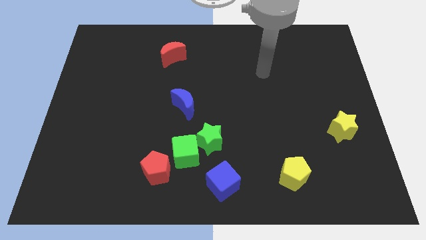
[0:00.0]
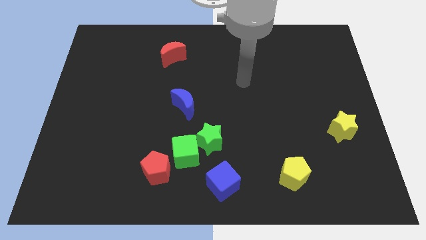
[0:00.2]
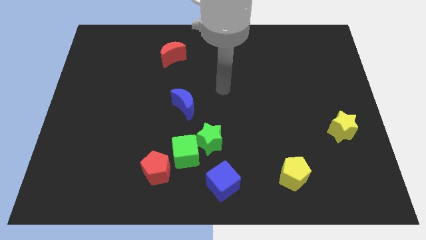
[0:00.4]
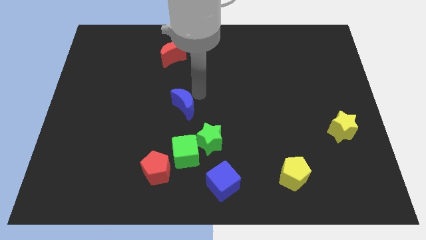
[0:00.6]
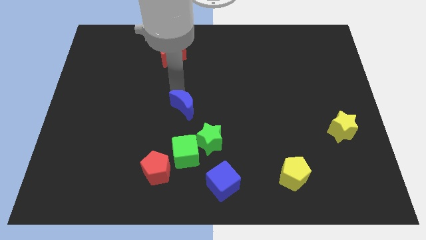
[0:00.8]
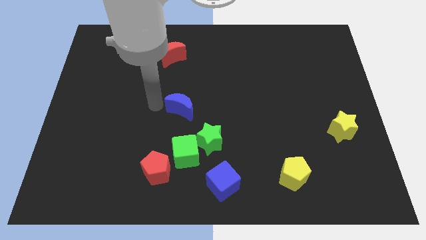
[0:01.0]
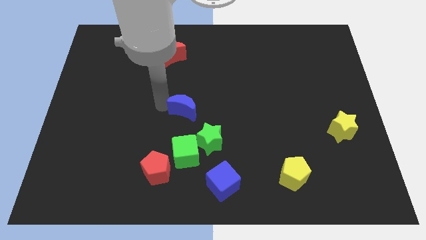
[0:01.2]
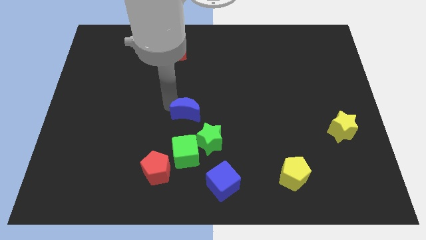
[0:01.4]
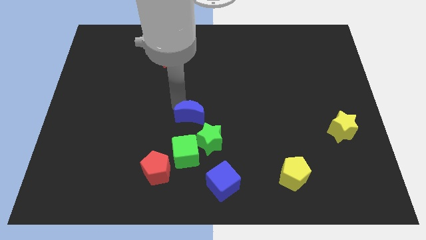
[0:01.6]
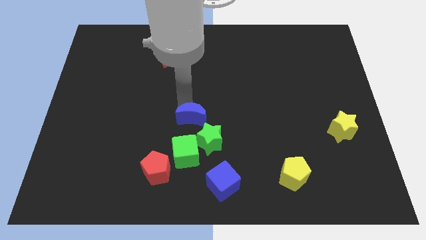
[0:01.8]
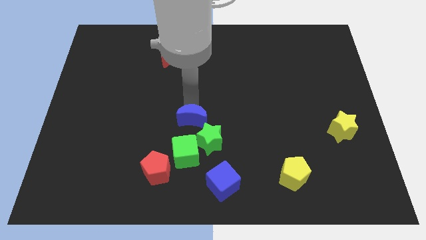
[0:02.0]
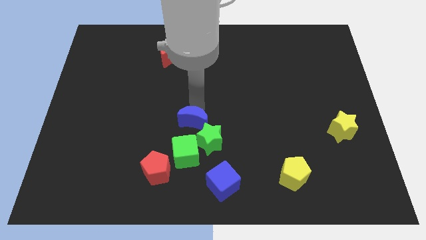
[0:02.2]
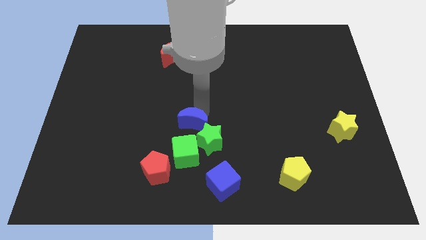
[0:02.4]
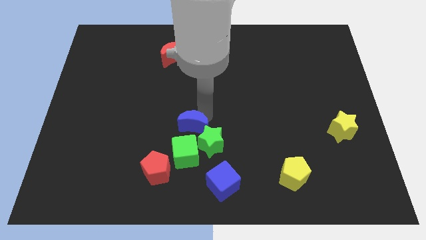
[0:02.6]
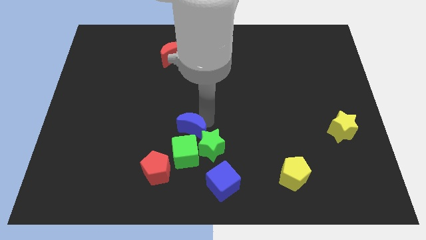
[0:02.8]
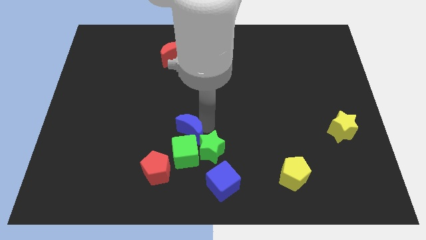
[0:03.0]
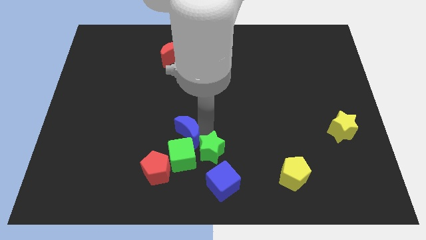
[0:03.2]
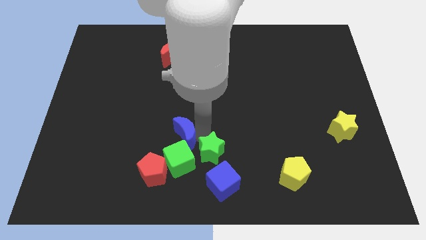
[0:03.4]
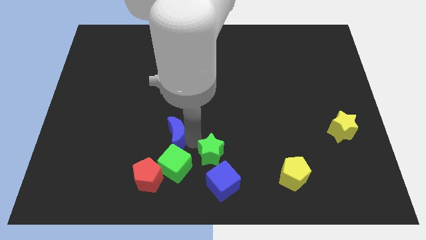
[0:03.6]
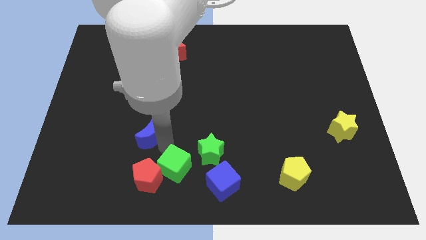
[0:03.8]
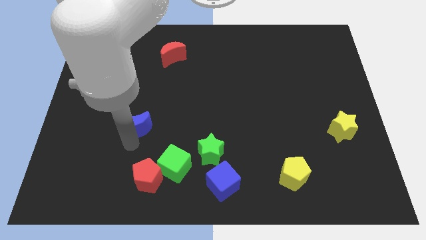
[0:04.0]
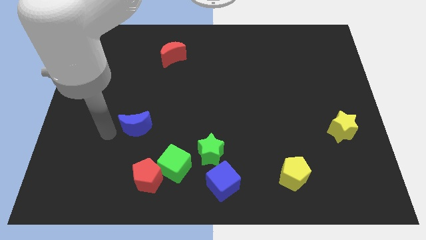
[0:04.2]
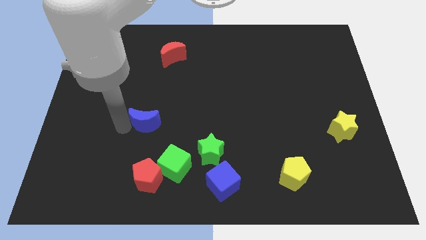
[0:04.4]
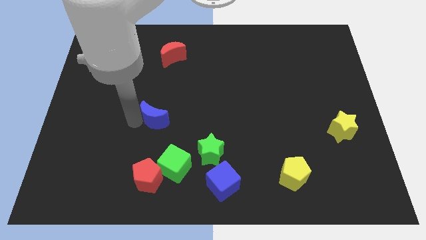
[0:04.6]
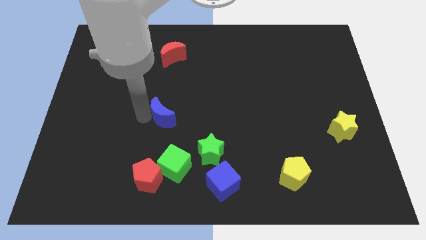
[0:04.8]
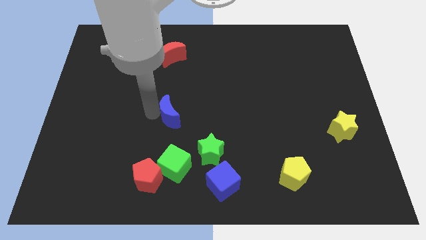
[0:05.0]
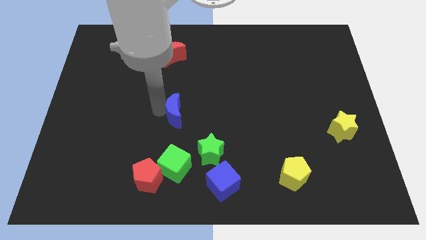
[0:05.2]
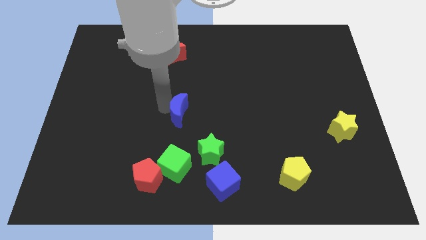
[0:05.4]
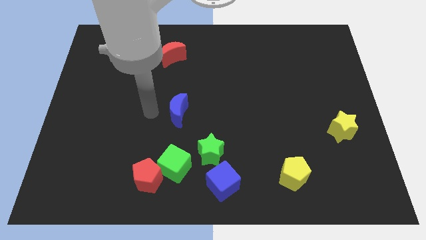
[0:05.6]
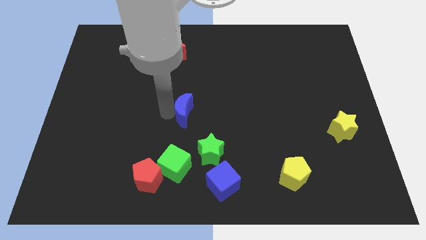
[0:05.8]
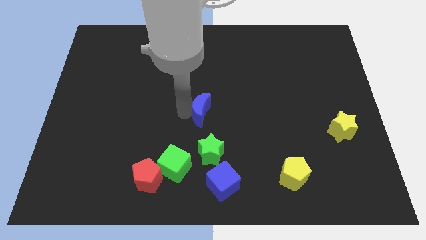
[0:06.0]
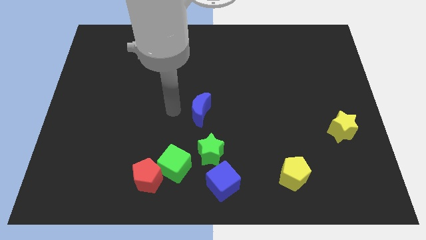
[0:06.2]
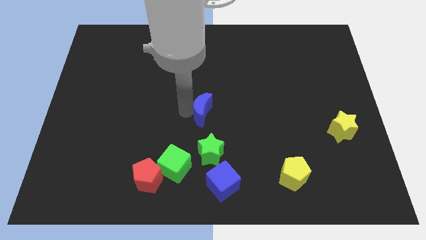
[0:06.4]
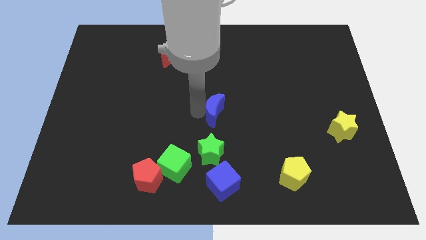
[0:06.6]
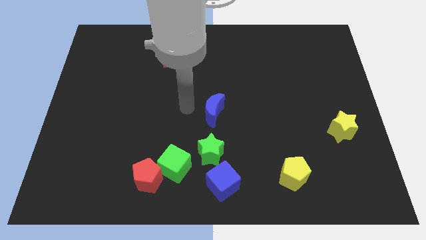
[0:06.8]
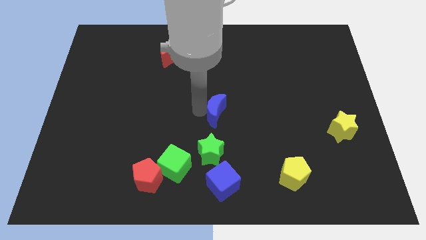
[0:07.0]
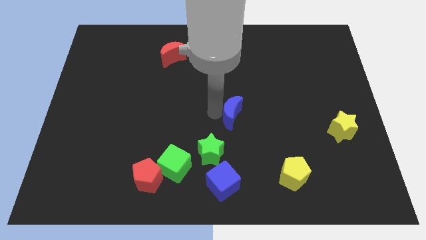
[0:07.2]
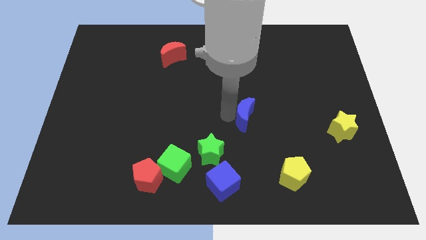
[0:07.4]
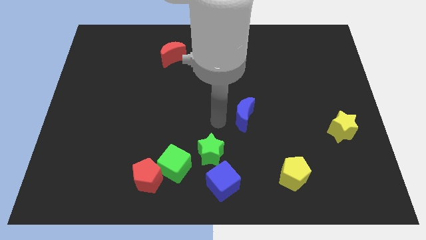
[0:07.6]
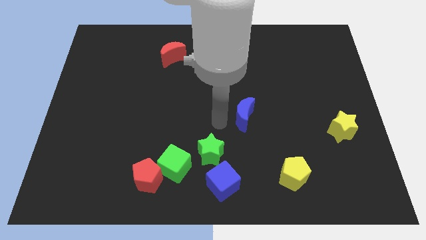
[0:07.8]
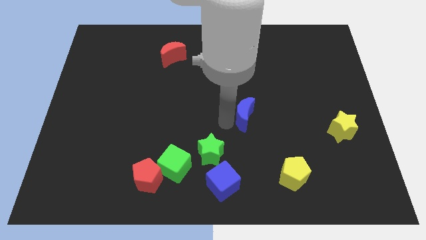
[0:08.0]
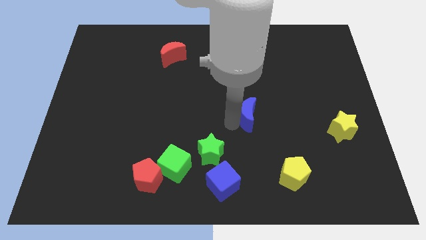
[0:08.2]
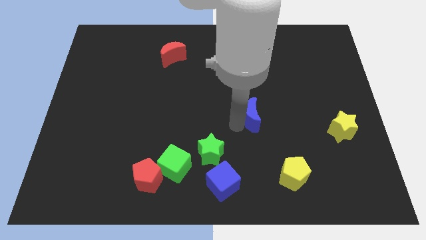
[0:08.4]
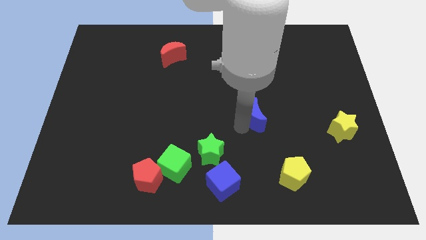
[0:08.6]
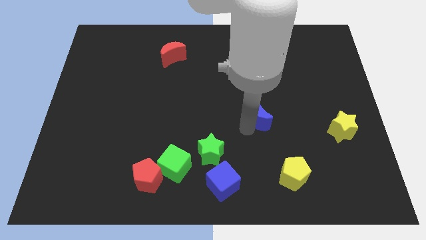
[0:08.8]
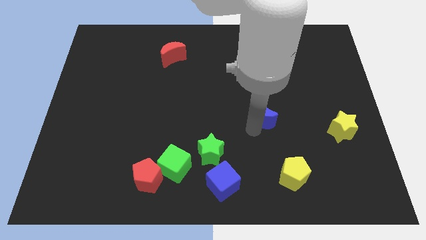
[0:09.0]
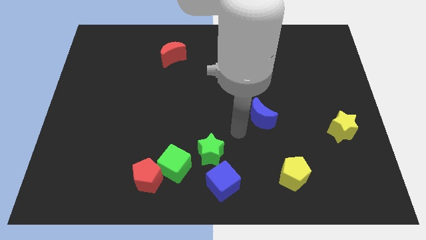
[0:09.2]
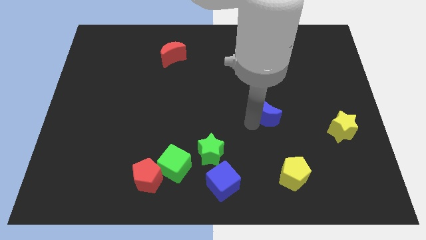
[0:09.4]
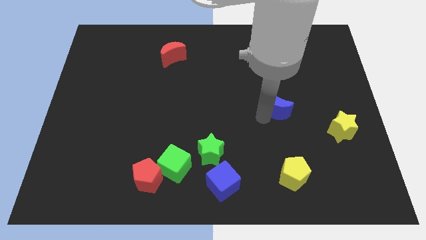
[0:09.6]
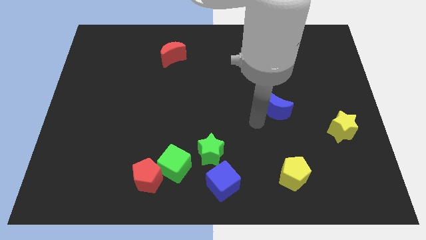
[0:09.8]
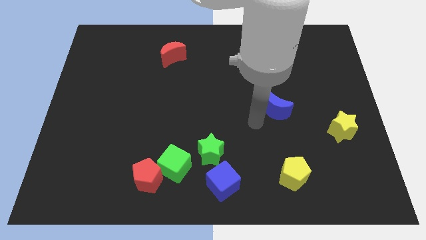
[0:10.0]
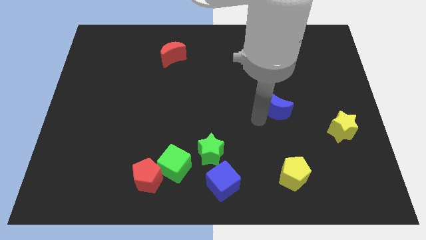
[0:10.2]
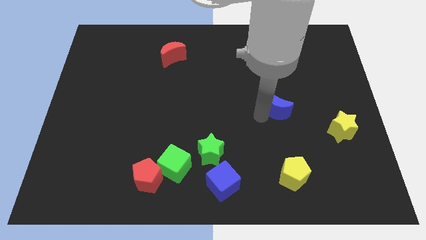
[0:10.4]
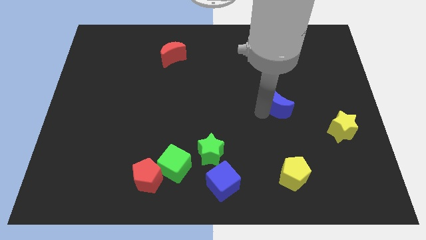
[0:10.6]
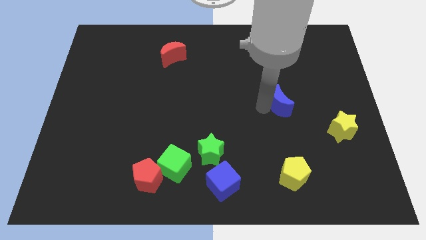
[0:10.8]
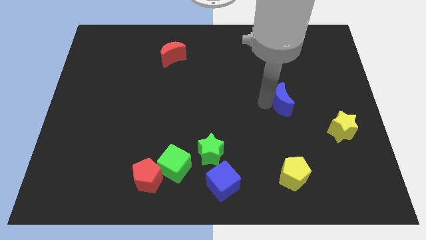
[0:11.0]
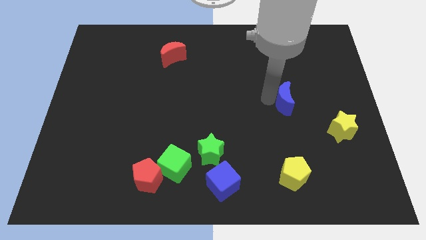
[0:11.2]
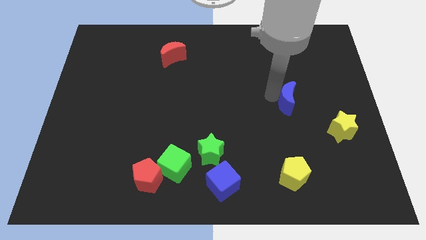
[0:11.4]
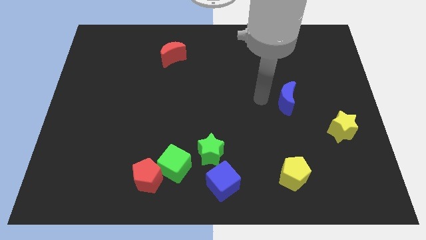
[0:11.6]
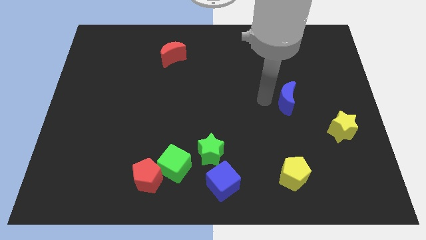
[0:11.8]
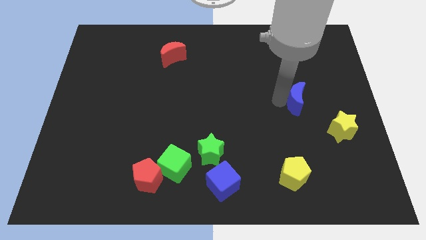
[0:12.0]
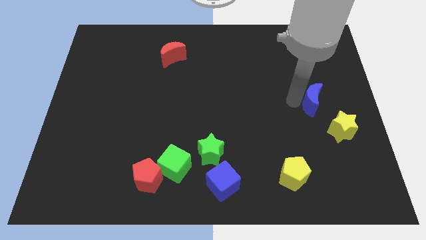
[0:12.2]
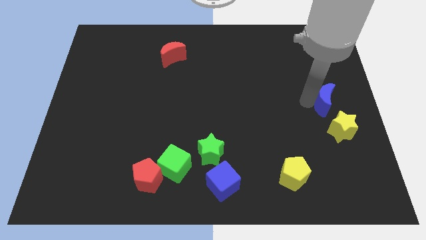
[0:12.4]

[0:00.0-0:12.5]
move the blue moon to the center right
